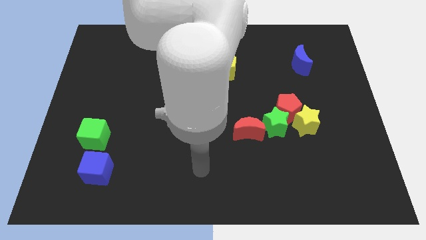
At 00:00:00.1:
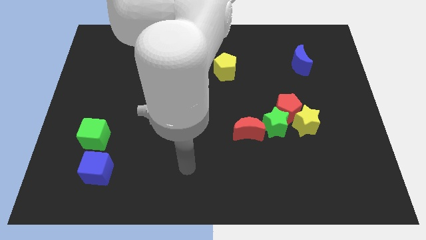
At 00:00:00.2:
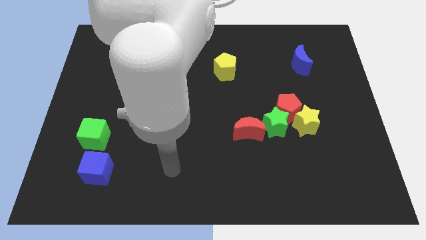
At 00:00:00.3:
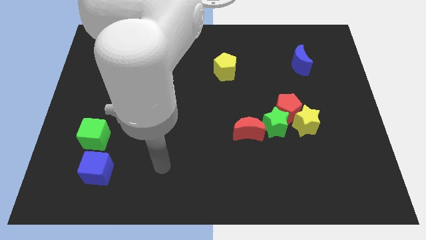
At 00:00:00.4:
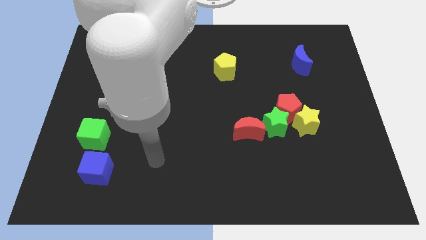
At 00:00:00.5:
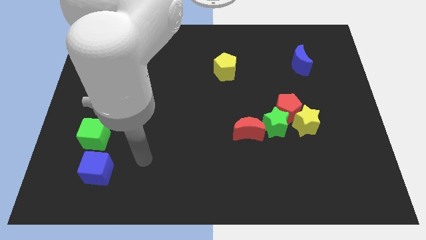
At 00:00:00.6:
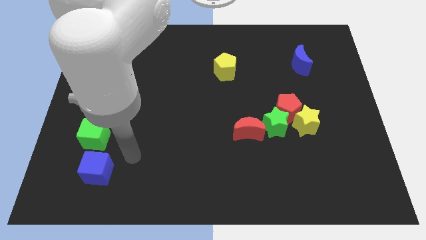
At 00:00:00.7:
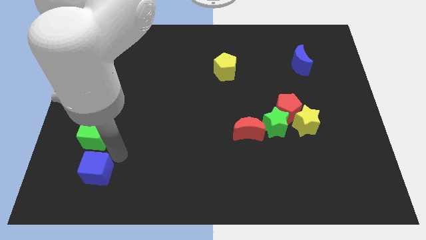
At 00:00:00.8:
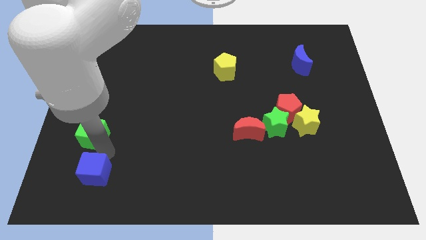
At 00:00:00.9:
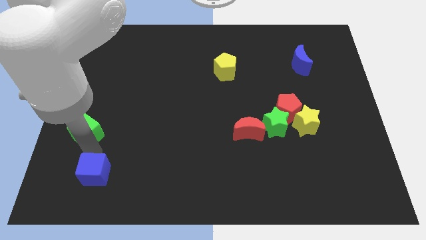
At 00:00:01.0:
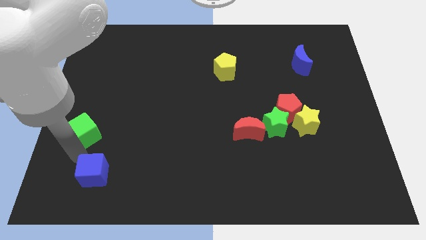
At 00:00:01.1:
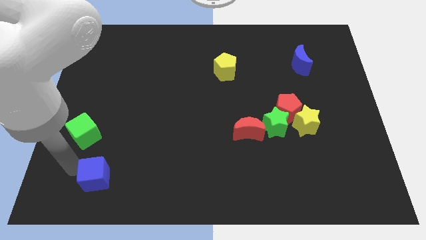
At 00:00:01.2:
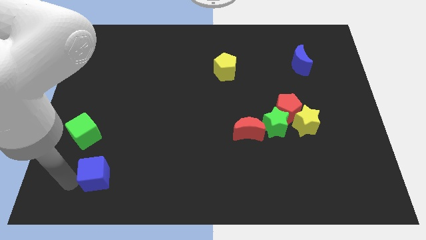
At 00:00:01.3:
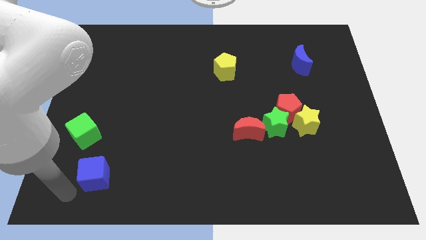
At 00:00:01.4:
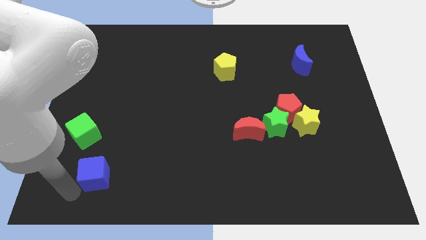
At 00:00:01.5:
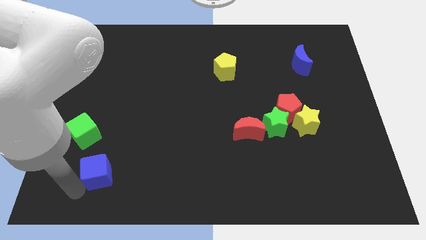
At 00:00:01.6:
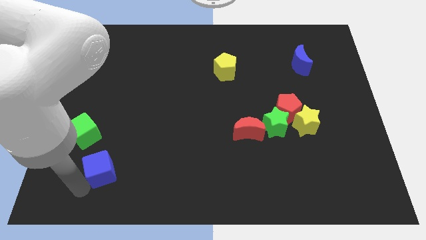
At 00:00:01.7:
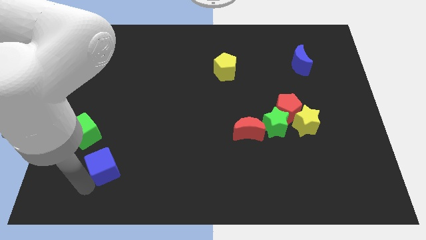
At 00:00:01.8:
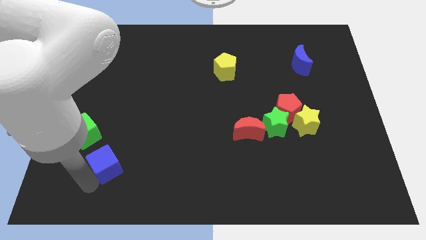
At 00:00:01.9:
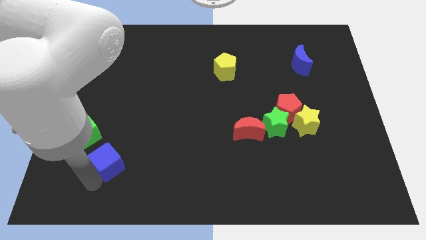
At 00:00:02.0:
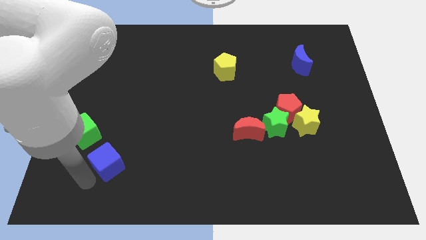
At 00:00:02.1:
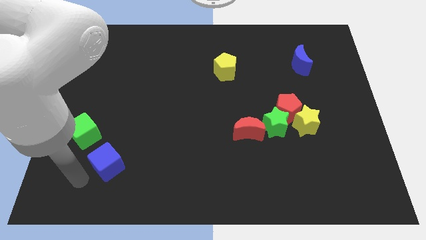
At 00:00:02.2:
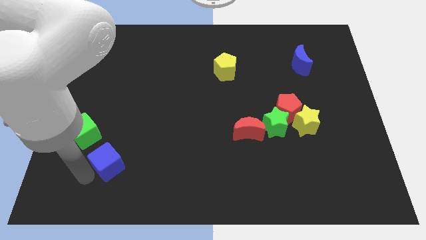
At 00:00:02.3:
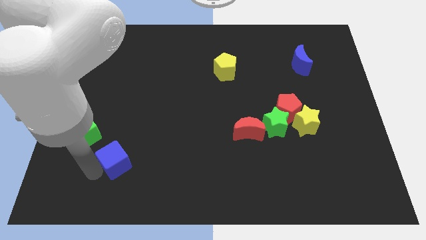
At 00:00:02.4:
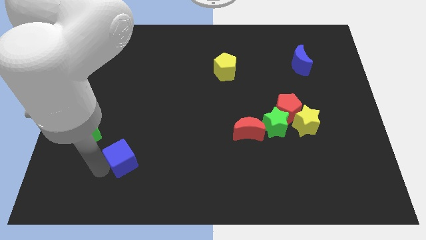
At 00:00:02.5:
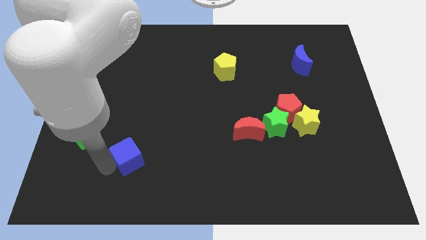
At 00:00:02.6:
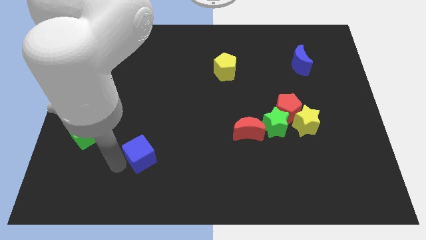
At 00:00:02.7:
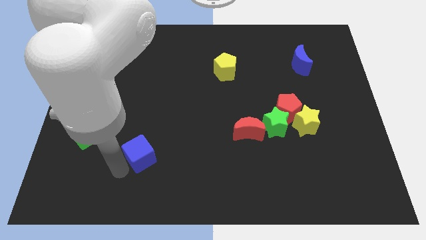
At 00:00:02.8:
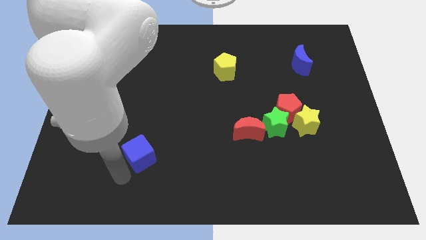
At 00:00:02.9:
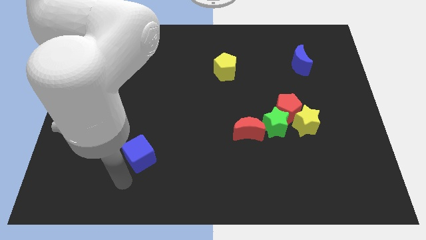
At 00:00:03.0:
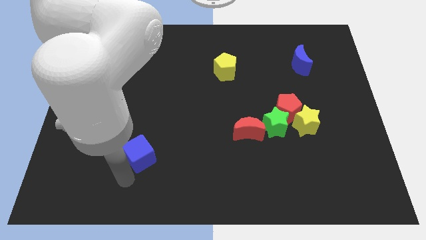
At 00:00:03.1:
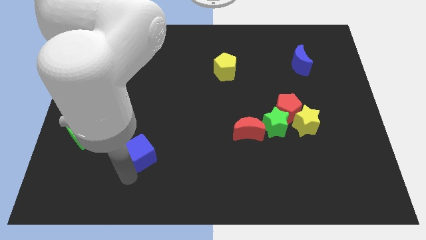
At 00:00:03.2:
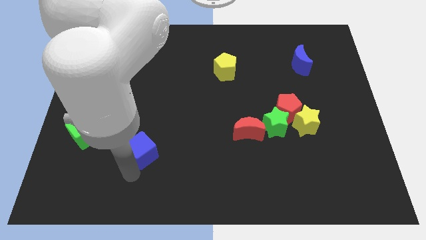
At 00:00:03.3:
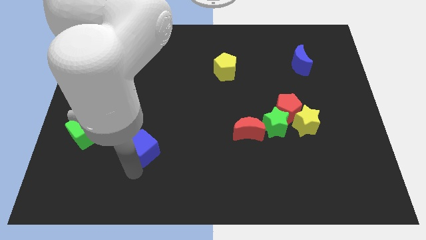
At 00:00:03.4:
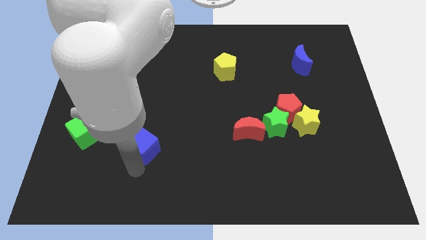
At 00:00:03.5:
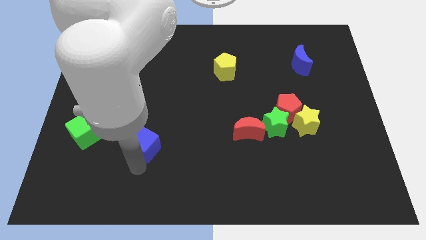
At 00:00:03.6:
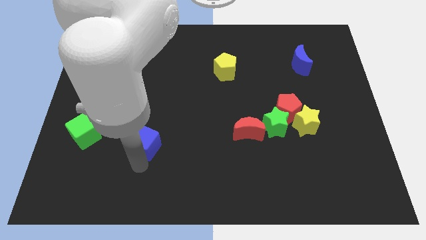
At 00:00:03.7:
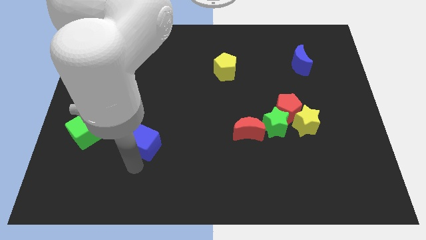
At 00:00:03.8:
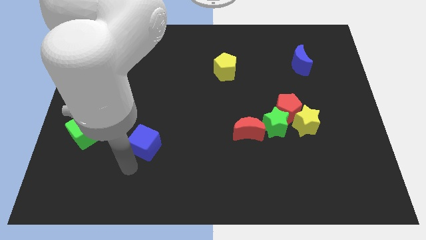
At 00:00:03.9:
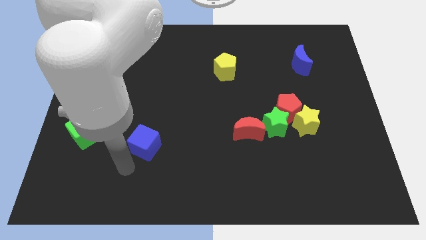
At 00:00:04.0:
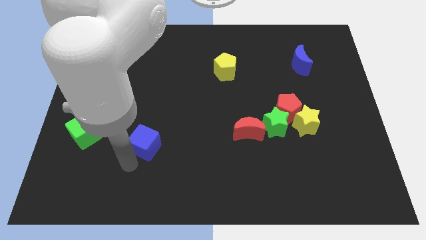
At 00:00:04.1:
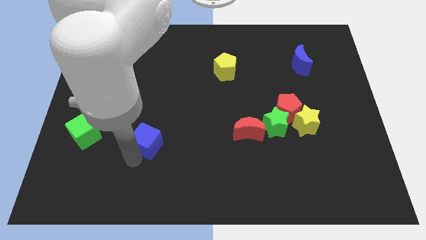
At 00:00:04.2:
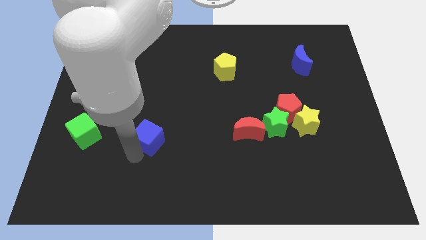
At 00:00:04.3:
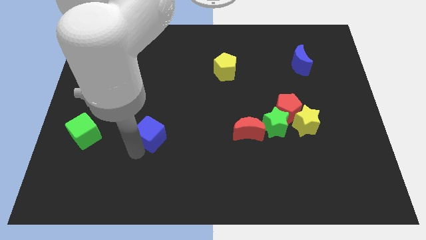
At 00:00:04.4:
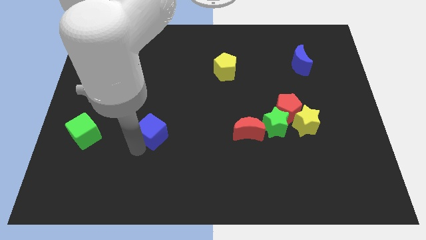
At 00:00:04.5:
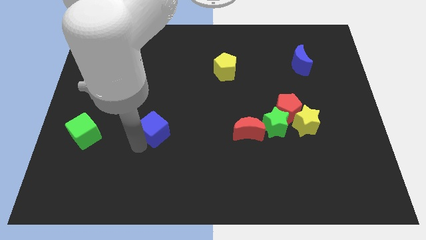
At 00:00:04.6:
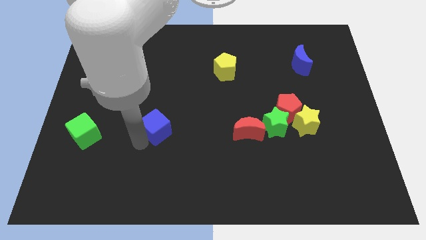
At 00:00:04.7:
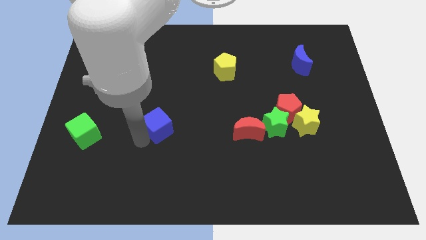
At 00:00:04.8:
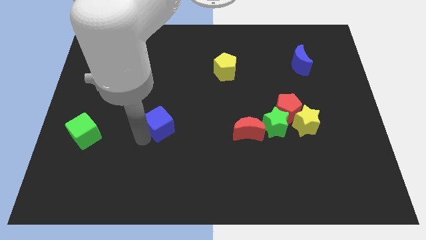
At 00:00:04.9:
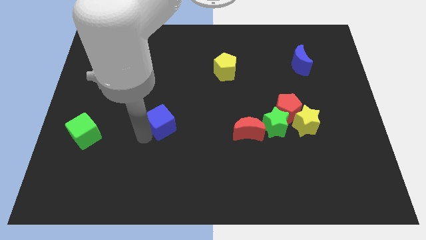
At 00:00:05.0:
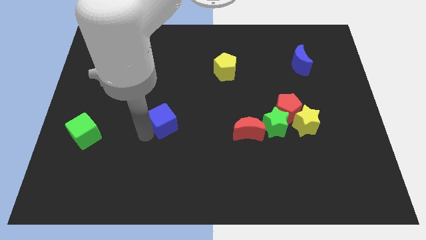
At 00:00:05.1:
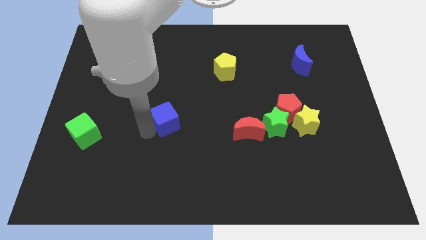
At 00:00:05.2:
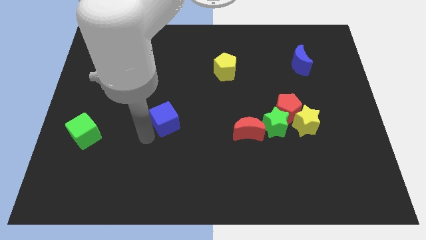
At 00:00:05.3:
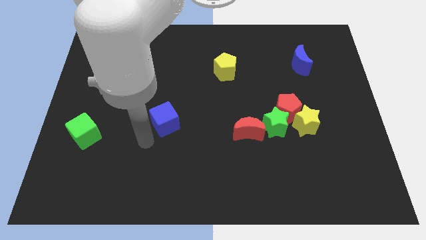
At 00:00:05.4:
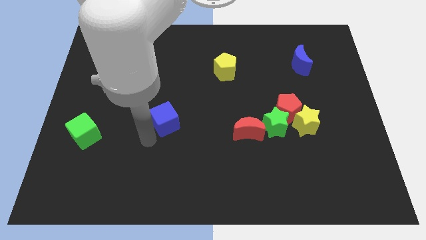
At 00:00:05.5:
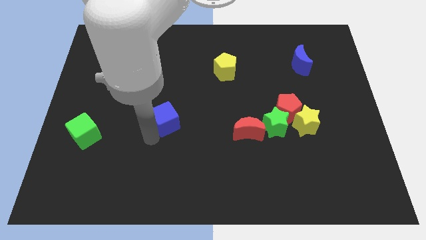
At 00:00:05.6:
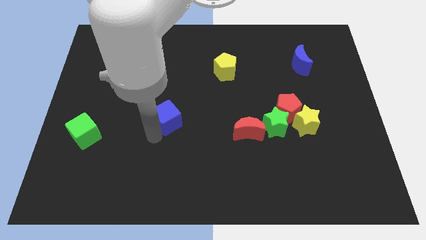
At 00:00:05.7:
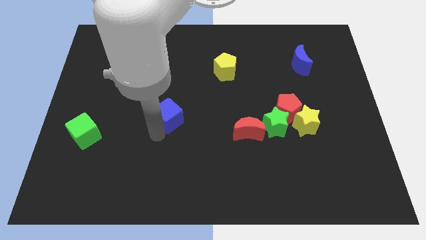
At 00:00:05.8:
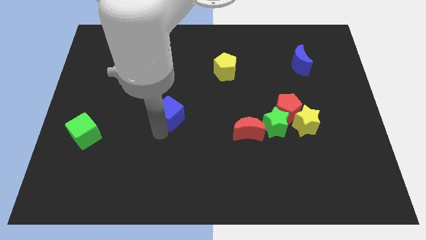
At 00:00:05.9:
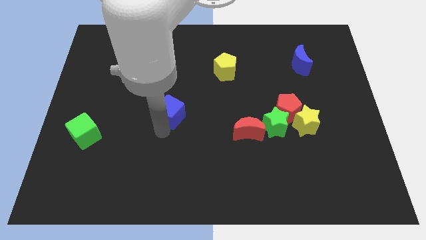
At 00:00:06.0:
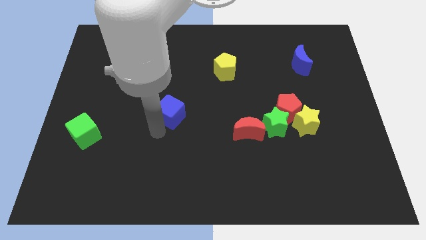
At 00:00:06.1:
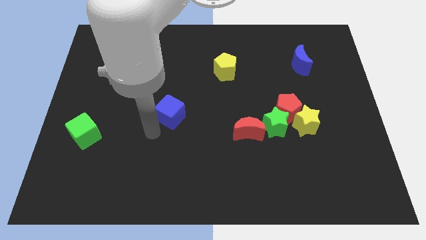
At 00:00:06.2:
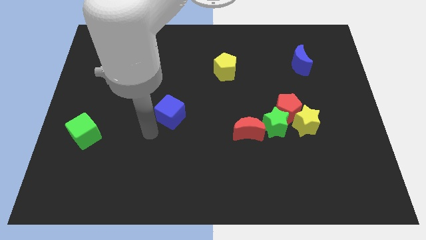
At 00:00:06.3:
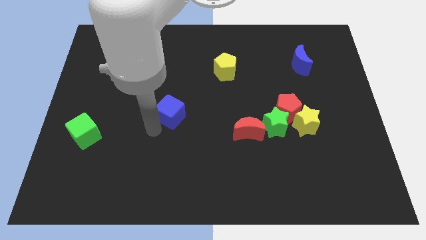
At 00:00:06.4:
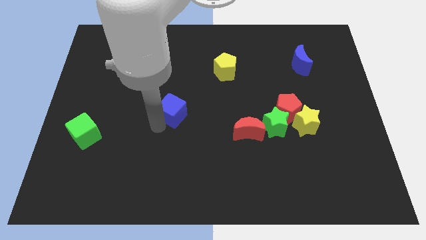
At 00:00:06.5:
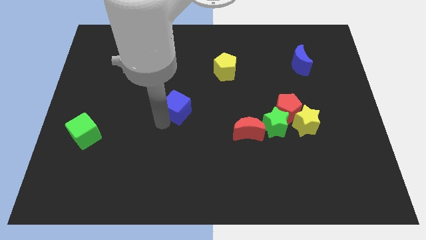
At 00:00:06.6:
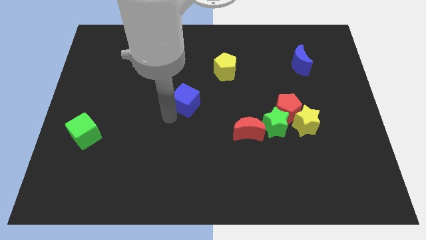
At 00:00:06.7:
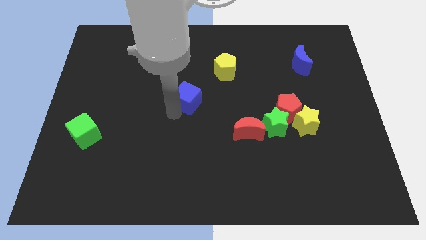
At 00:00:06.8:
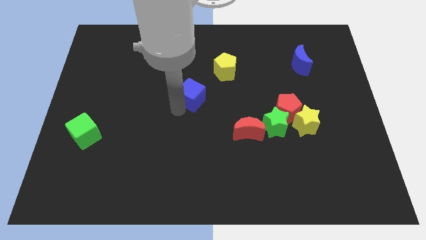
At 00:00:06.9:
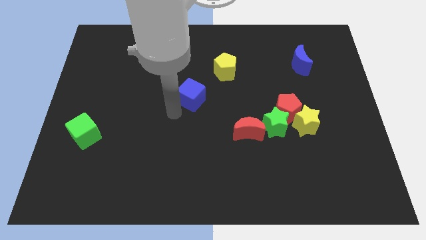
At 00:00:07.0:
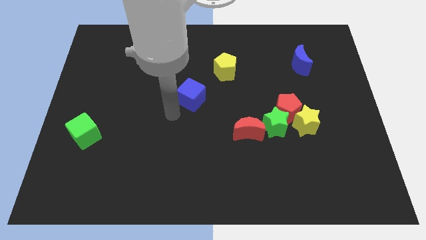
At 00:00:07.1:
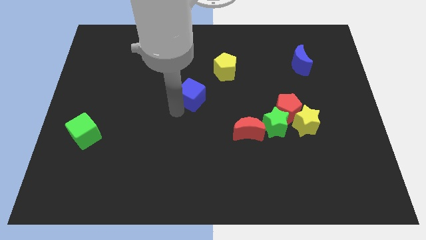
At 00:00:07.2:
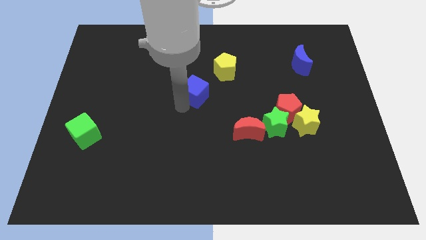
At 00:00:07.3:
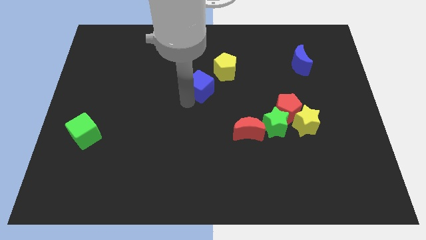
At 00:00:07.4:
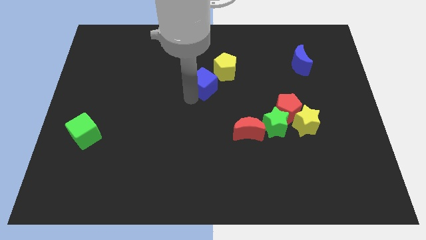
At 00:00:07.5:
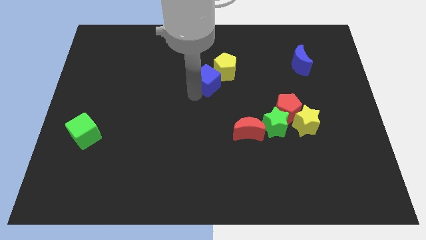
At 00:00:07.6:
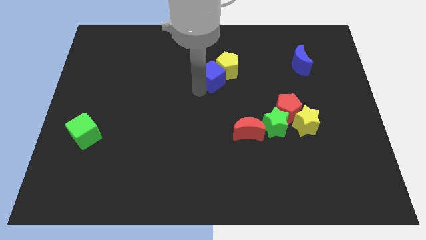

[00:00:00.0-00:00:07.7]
put the blue cube close to the yellow pentagon
